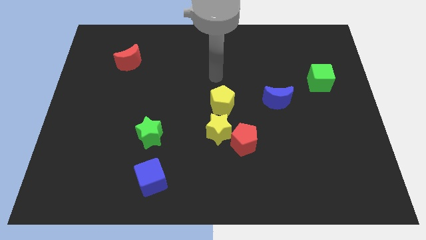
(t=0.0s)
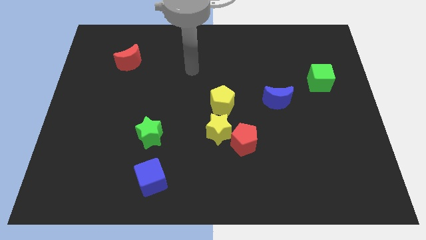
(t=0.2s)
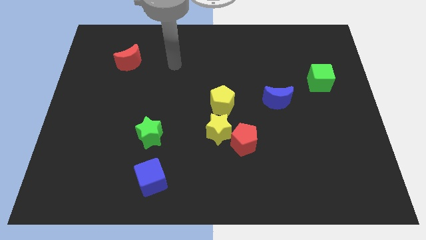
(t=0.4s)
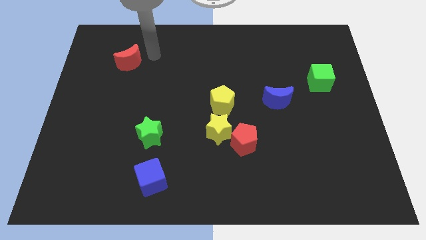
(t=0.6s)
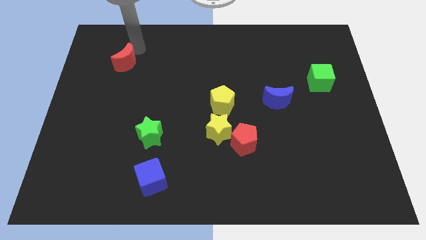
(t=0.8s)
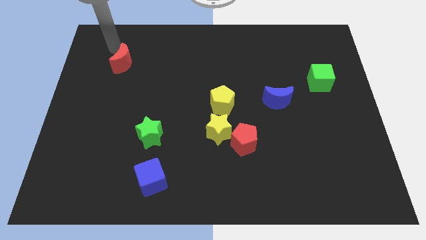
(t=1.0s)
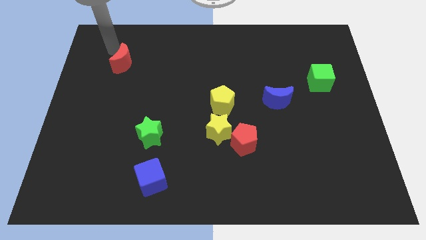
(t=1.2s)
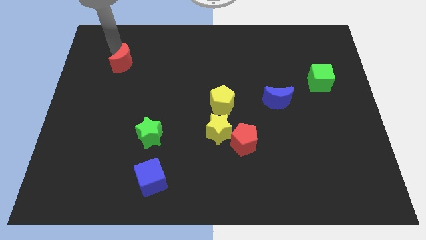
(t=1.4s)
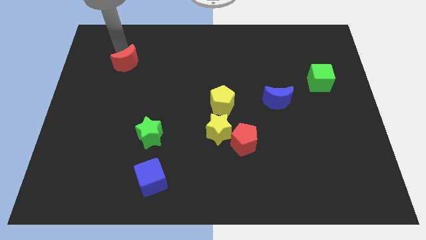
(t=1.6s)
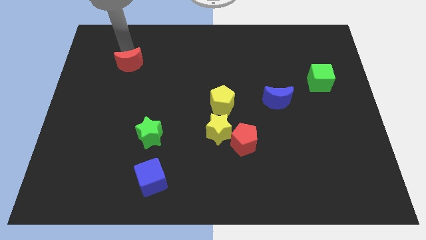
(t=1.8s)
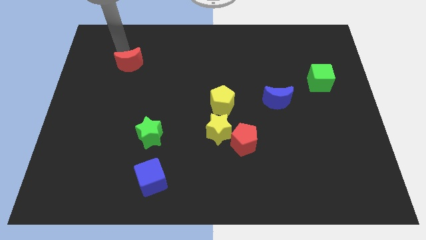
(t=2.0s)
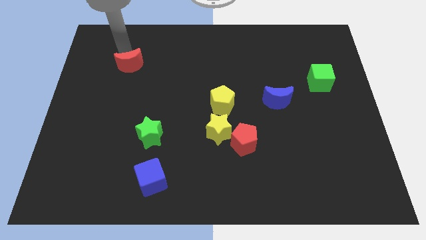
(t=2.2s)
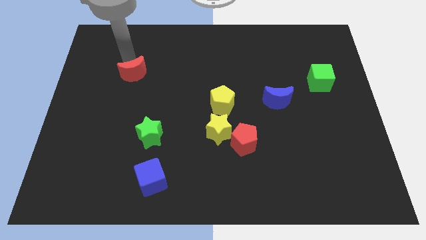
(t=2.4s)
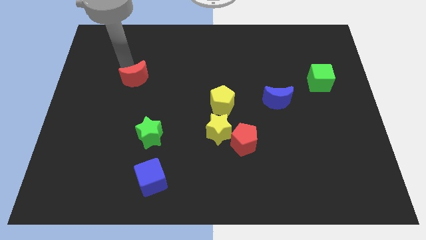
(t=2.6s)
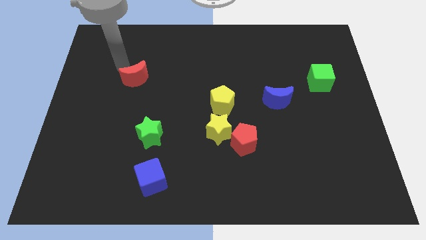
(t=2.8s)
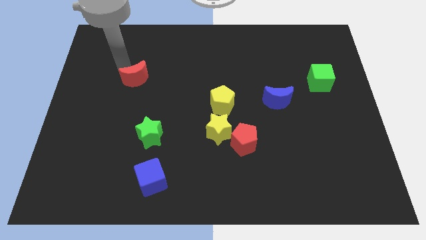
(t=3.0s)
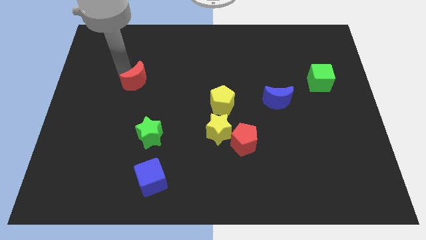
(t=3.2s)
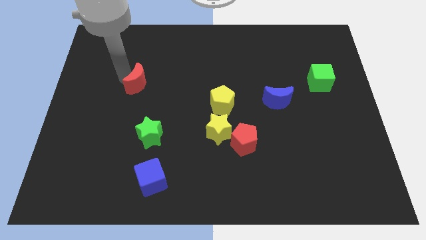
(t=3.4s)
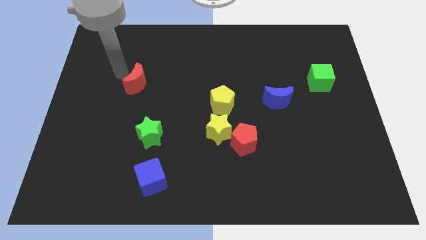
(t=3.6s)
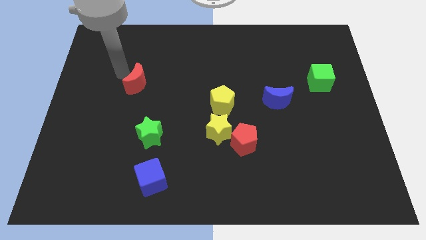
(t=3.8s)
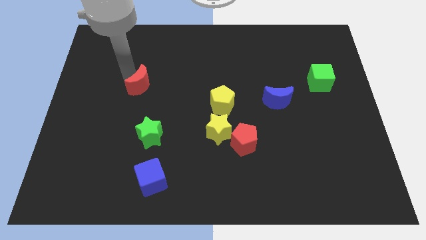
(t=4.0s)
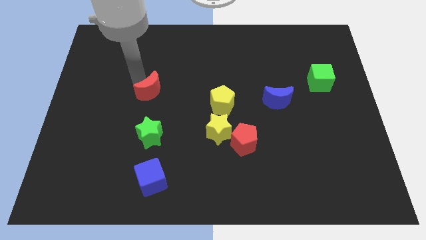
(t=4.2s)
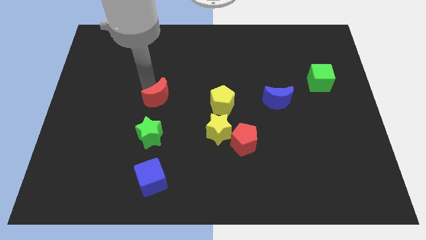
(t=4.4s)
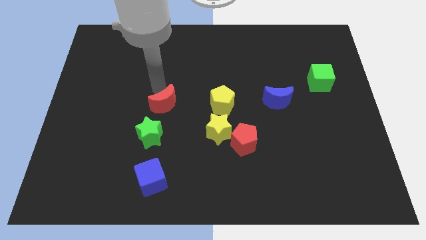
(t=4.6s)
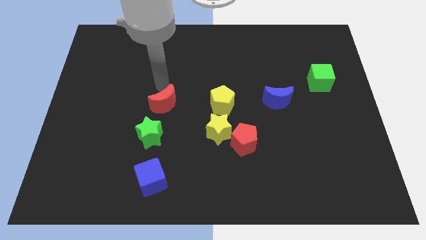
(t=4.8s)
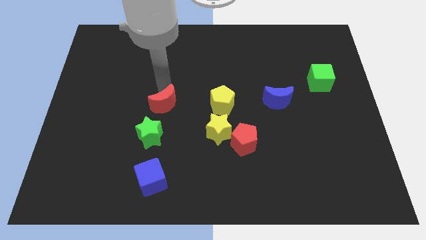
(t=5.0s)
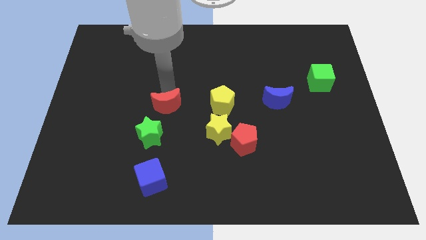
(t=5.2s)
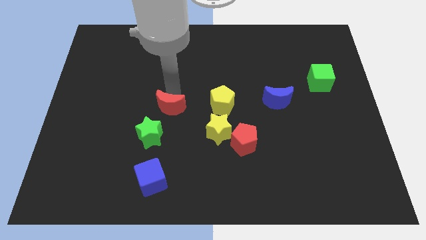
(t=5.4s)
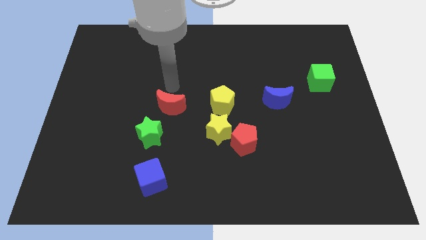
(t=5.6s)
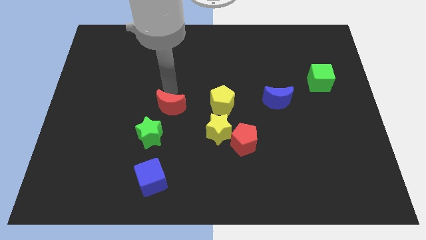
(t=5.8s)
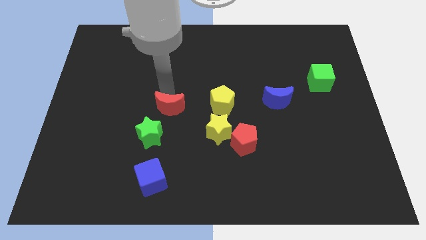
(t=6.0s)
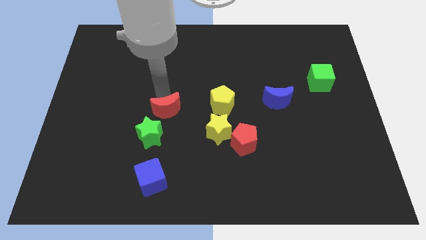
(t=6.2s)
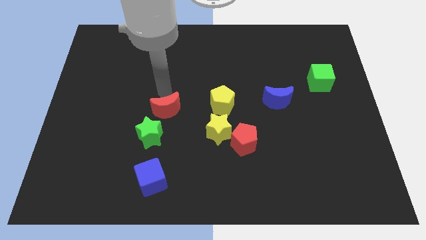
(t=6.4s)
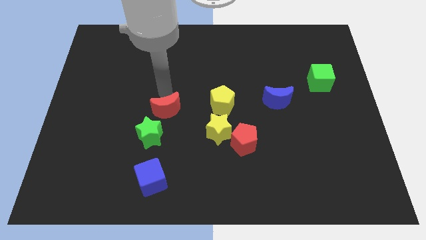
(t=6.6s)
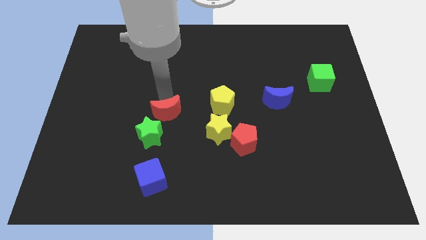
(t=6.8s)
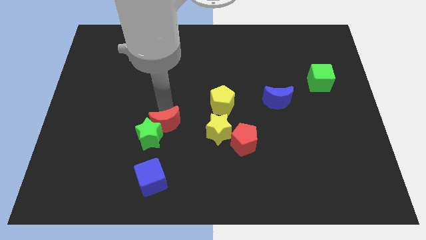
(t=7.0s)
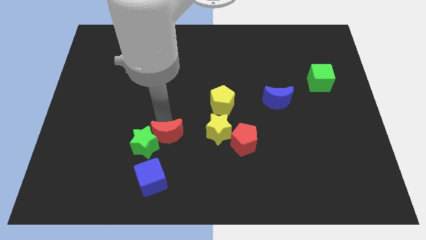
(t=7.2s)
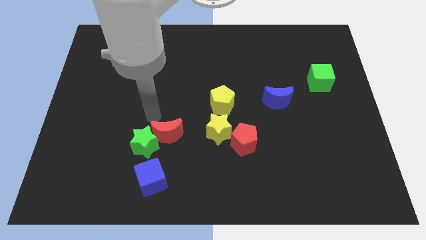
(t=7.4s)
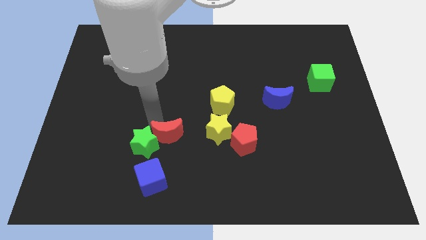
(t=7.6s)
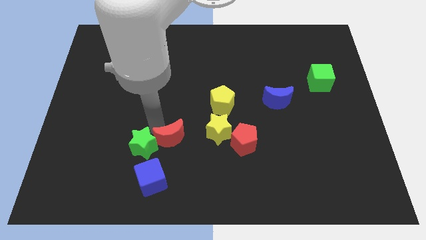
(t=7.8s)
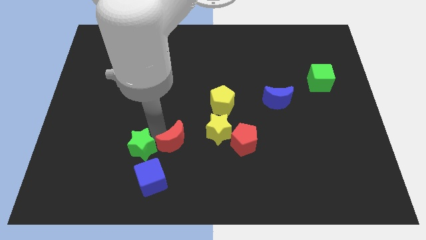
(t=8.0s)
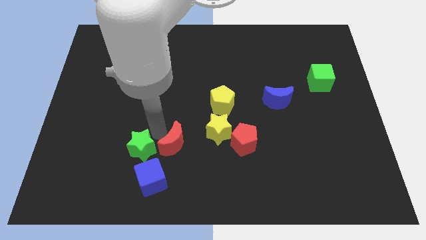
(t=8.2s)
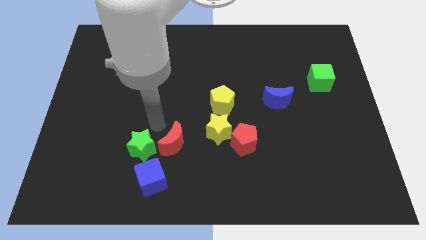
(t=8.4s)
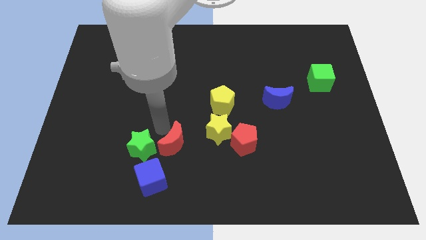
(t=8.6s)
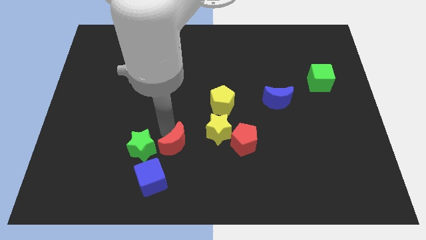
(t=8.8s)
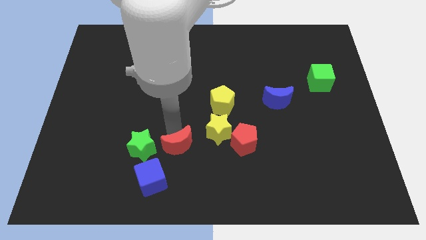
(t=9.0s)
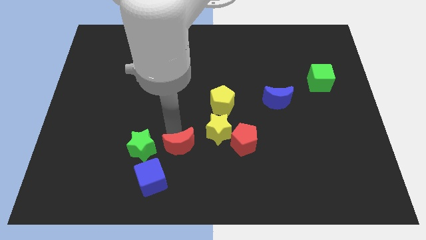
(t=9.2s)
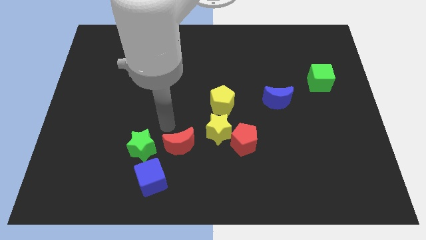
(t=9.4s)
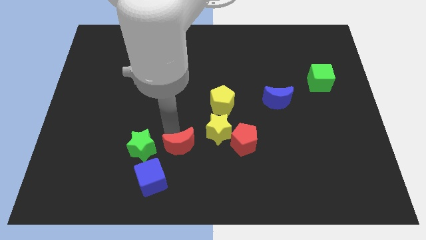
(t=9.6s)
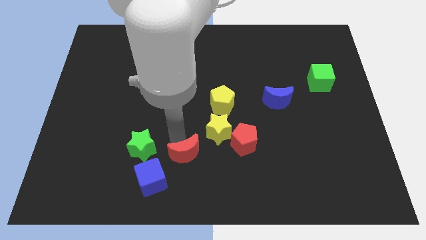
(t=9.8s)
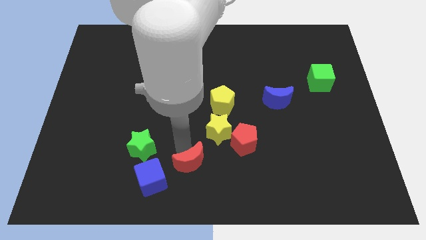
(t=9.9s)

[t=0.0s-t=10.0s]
move the red moon to the bottom

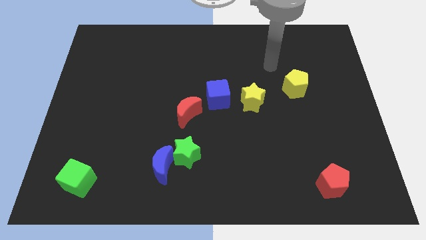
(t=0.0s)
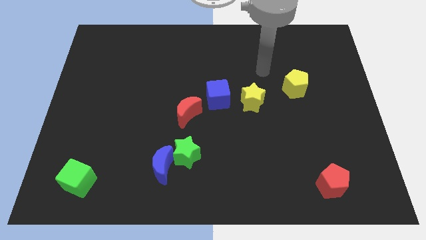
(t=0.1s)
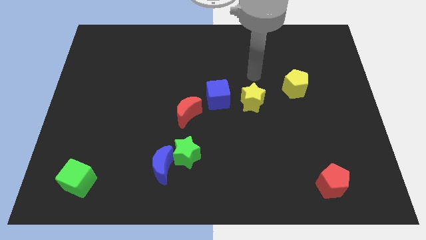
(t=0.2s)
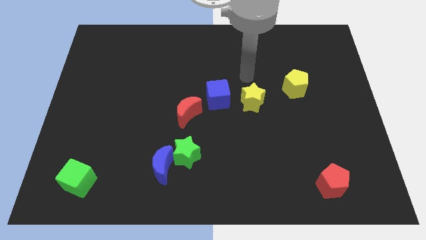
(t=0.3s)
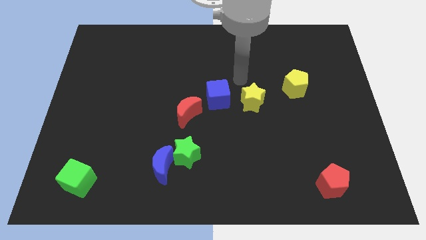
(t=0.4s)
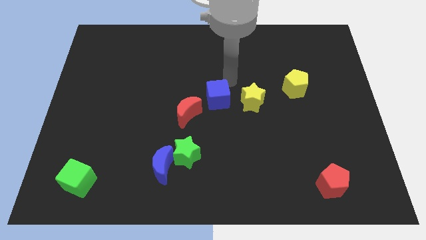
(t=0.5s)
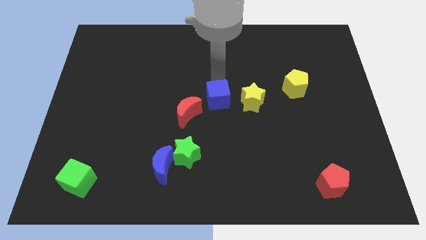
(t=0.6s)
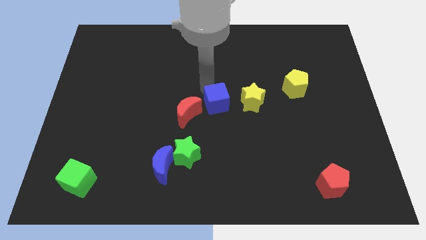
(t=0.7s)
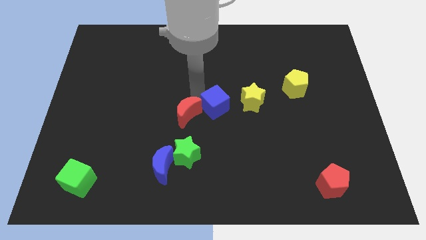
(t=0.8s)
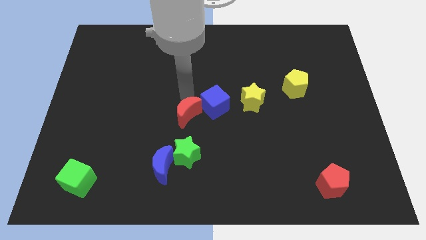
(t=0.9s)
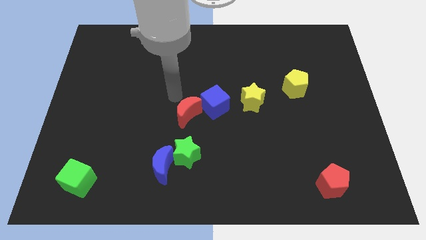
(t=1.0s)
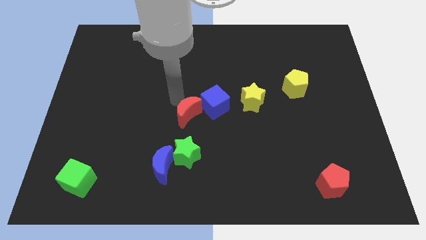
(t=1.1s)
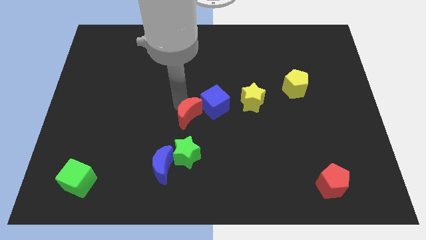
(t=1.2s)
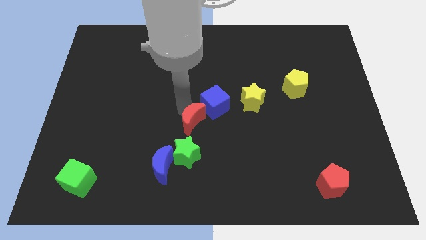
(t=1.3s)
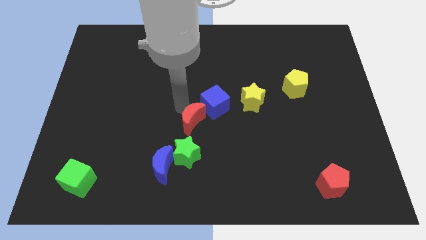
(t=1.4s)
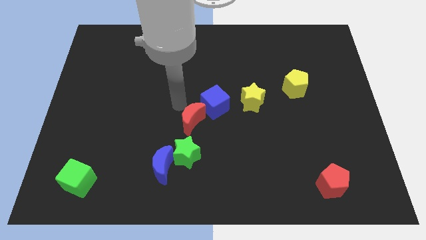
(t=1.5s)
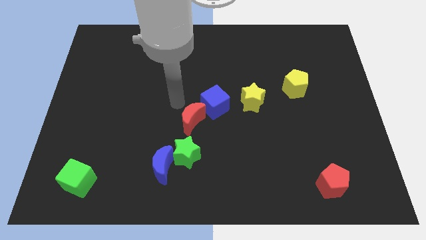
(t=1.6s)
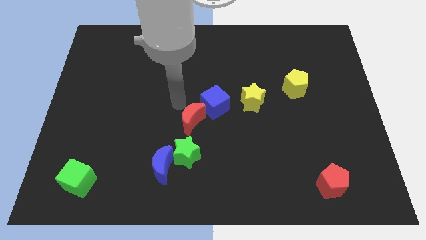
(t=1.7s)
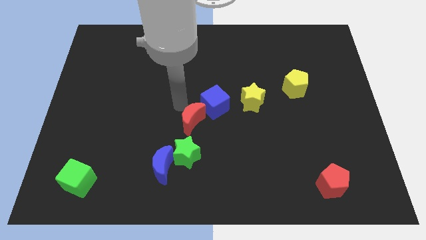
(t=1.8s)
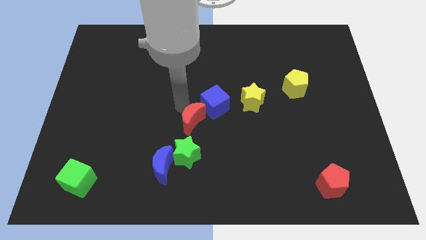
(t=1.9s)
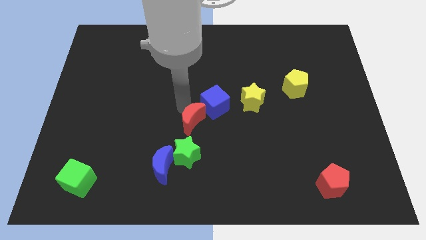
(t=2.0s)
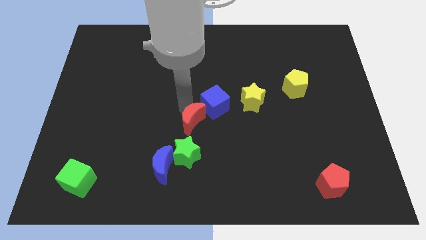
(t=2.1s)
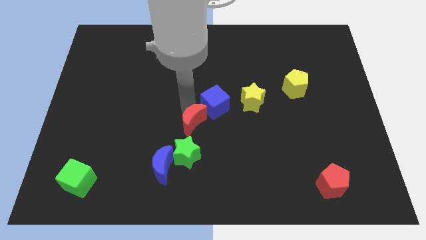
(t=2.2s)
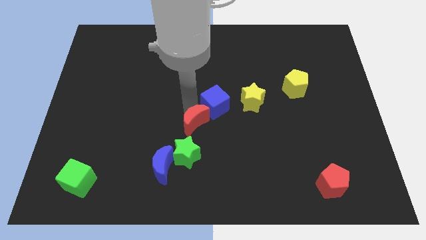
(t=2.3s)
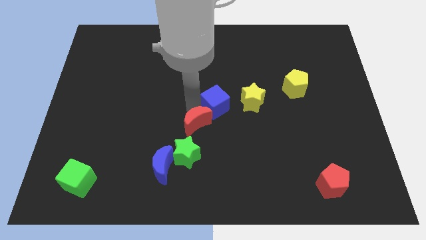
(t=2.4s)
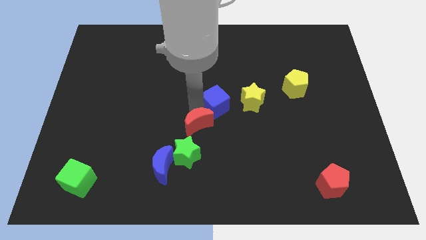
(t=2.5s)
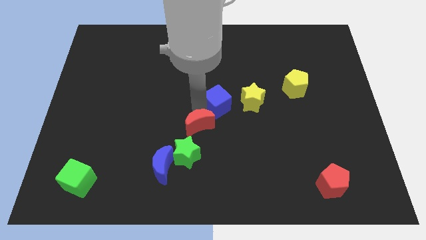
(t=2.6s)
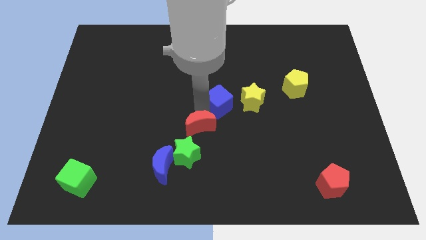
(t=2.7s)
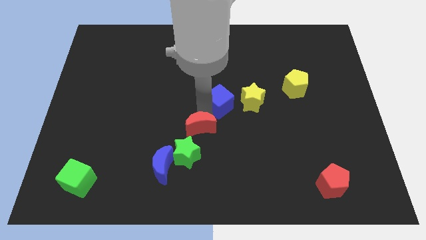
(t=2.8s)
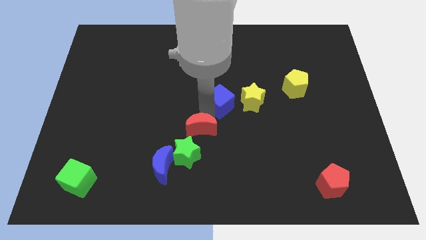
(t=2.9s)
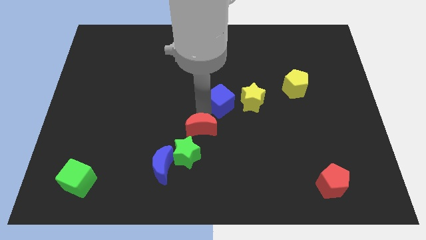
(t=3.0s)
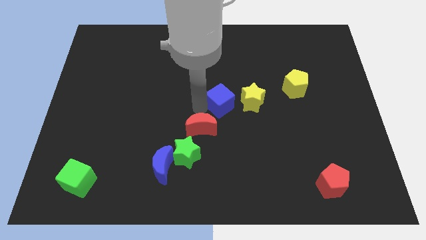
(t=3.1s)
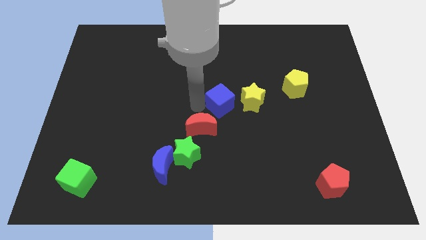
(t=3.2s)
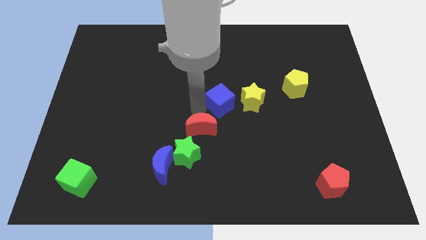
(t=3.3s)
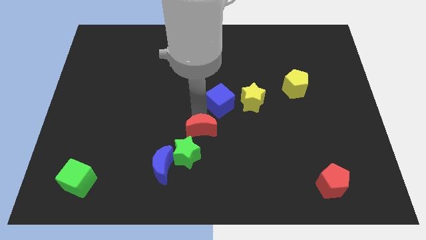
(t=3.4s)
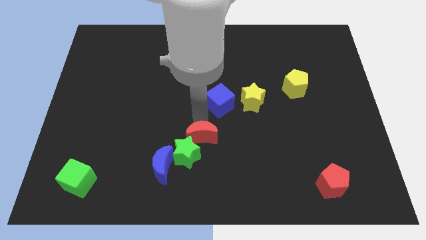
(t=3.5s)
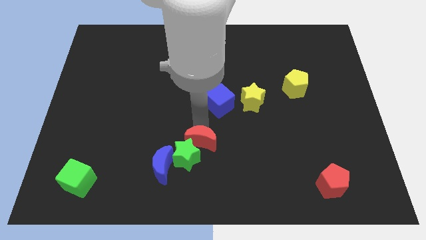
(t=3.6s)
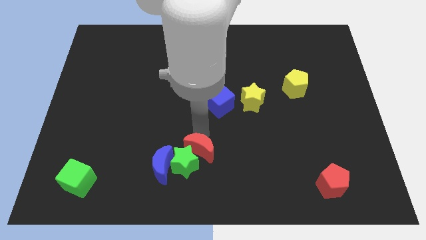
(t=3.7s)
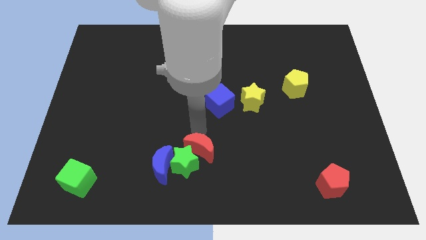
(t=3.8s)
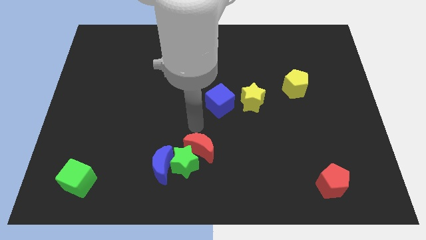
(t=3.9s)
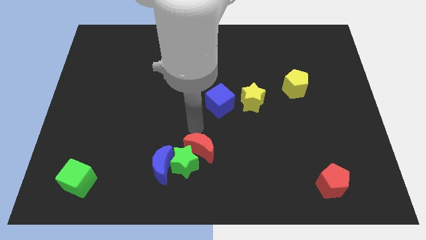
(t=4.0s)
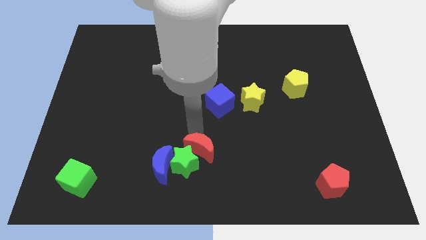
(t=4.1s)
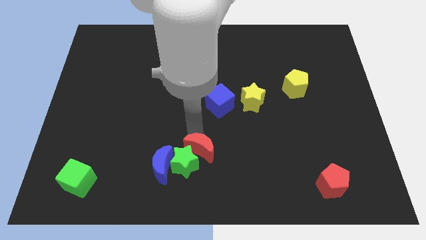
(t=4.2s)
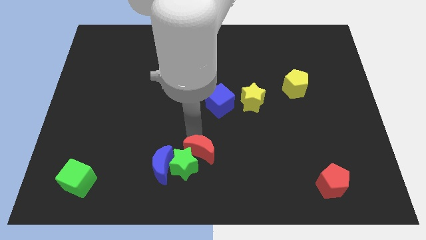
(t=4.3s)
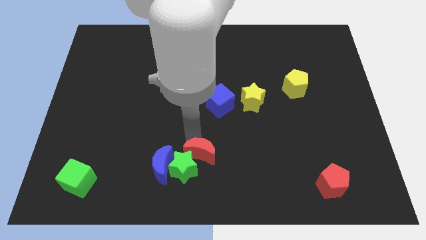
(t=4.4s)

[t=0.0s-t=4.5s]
push the red moon to the bottom
